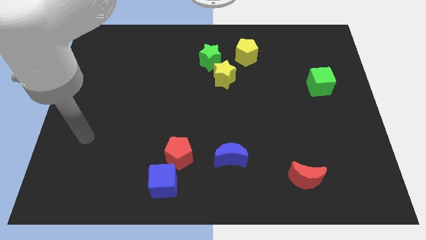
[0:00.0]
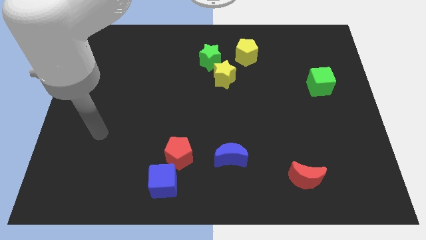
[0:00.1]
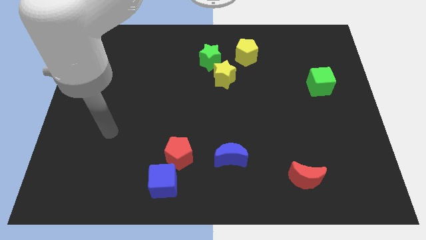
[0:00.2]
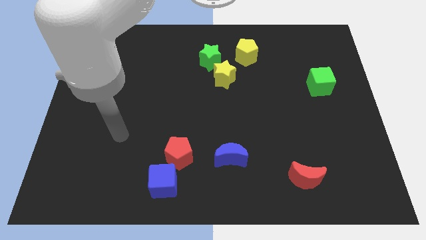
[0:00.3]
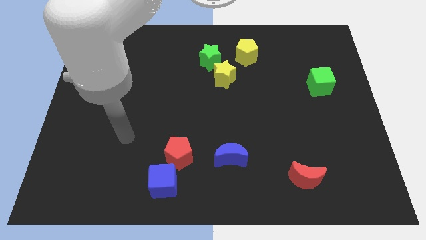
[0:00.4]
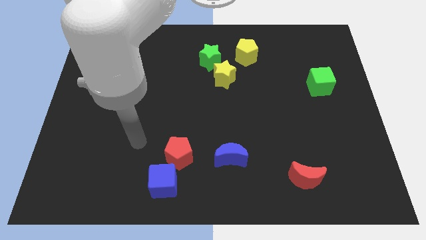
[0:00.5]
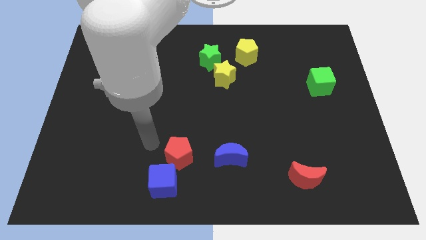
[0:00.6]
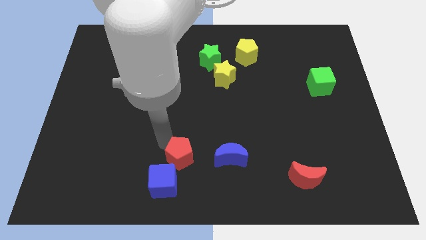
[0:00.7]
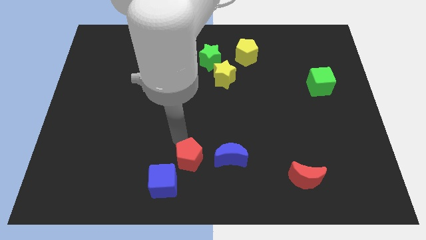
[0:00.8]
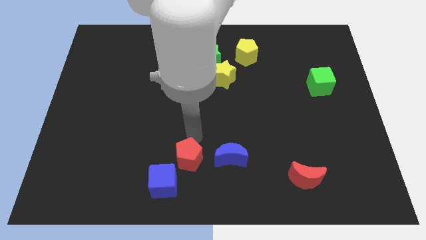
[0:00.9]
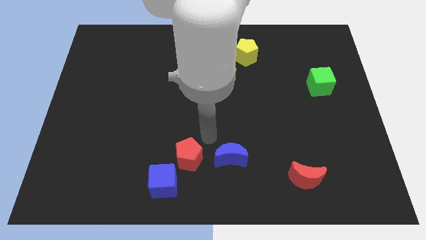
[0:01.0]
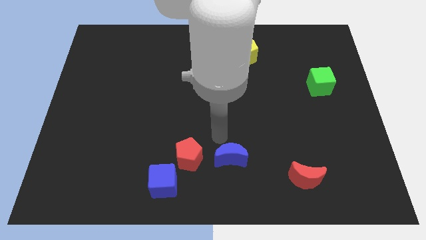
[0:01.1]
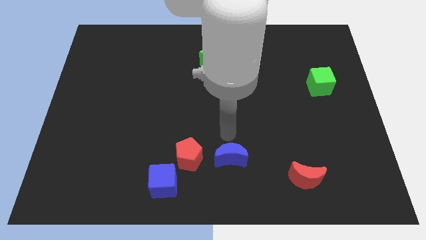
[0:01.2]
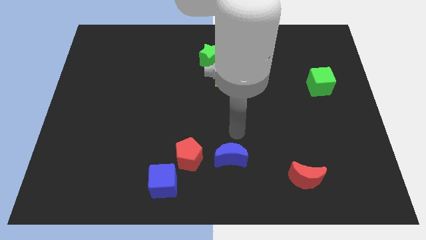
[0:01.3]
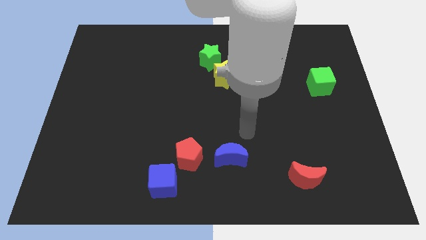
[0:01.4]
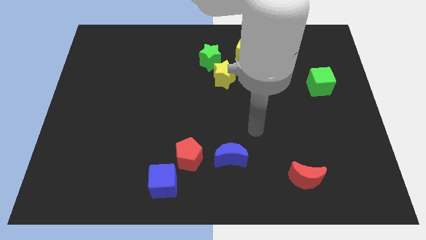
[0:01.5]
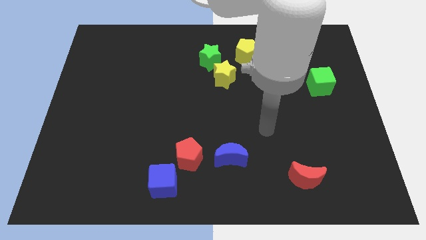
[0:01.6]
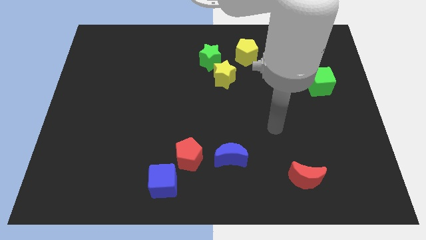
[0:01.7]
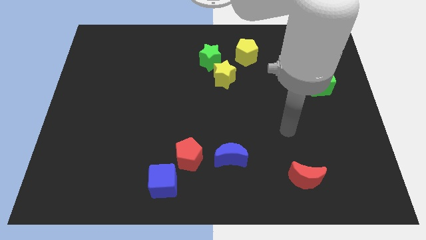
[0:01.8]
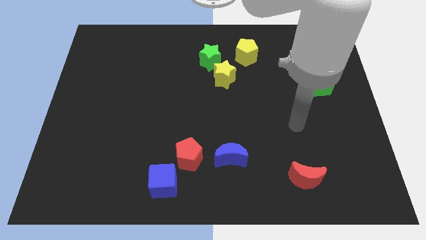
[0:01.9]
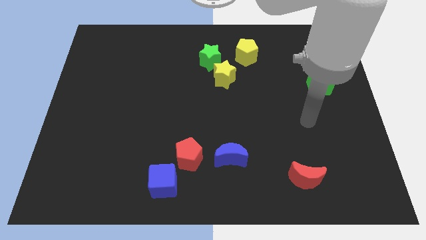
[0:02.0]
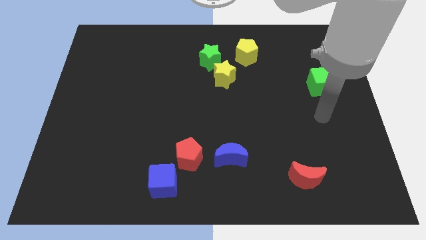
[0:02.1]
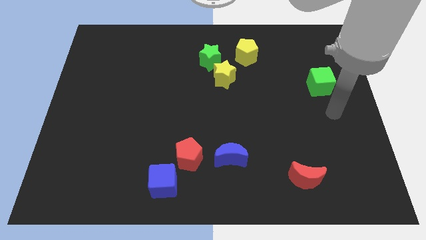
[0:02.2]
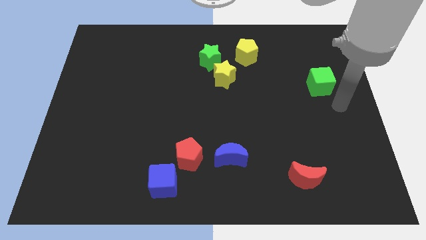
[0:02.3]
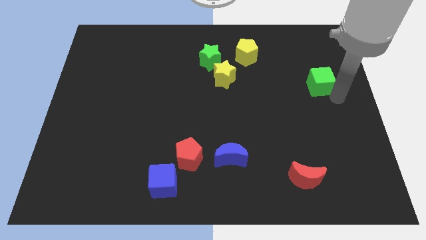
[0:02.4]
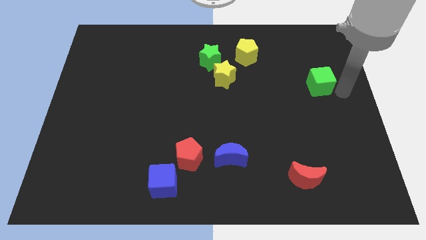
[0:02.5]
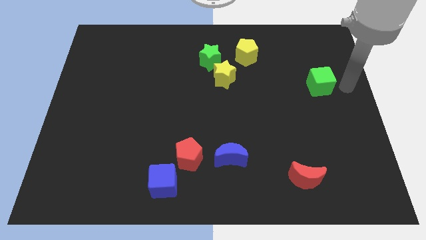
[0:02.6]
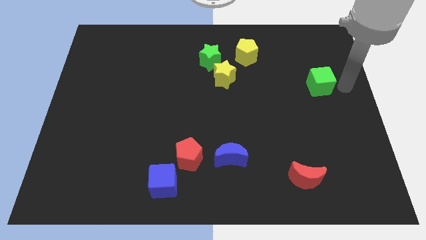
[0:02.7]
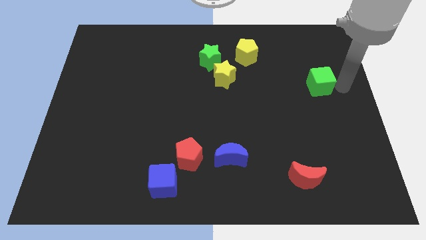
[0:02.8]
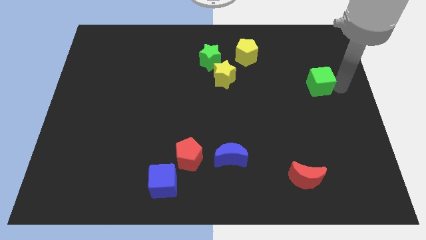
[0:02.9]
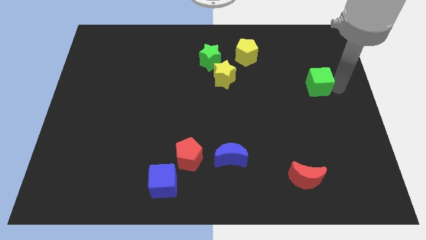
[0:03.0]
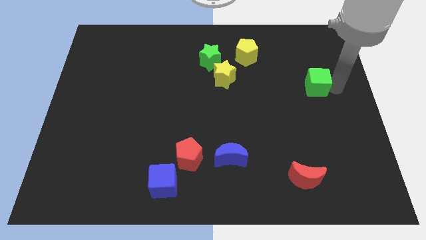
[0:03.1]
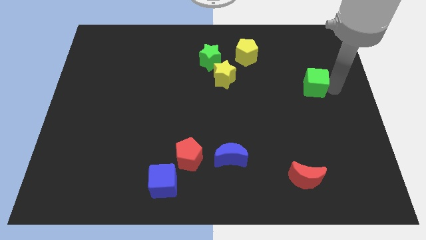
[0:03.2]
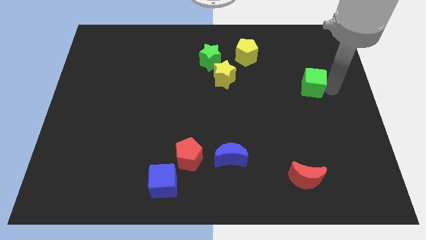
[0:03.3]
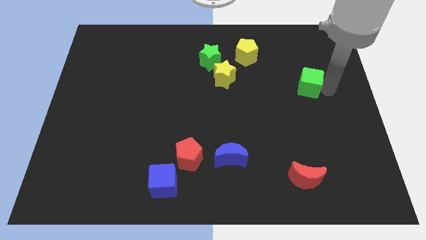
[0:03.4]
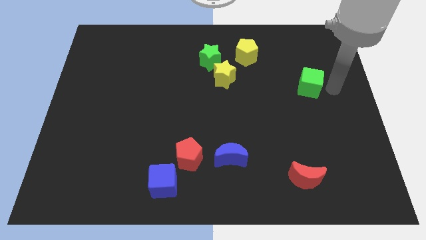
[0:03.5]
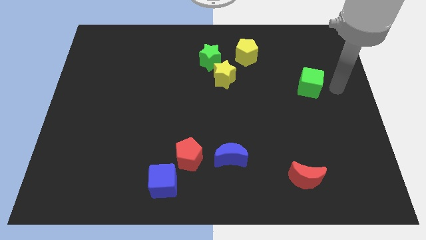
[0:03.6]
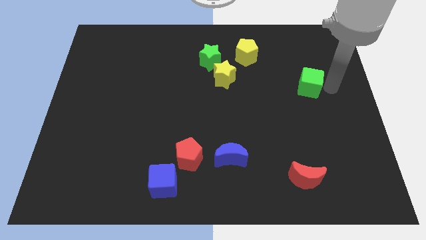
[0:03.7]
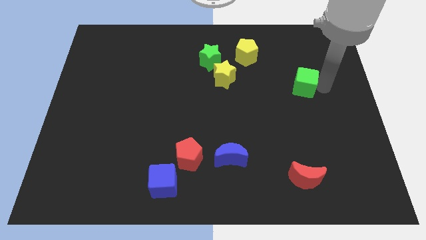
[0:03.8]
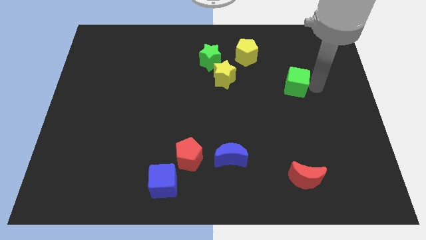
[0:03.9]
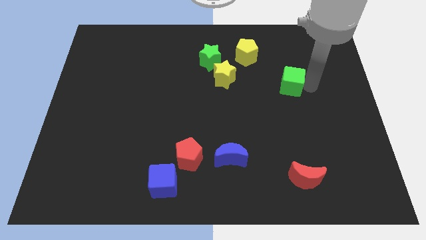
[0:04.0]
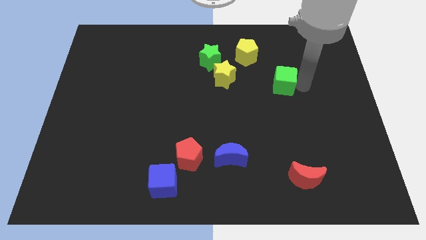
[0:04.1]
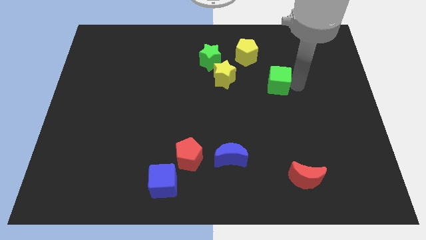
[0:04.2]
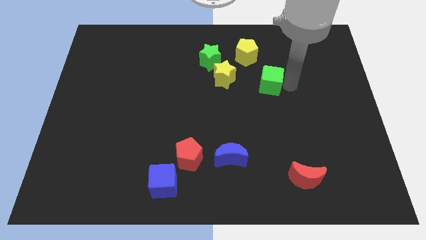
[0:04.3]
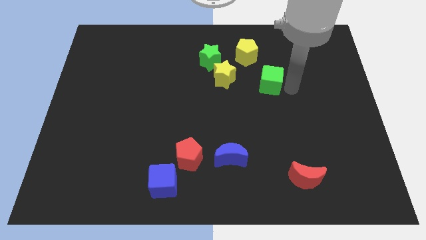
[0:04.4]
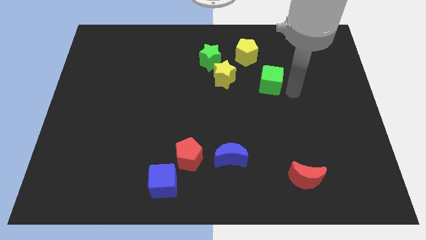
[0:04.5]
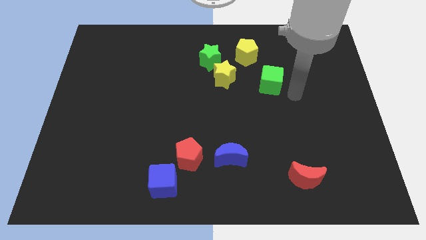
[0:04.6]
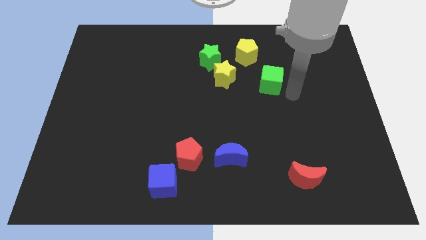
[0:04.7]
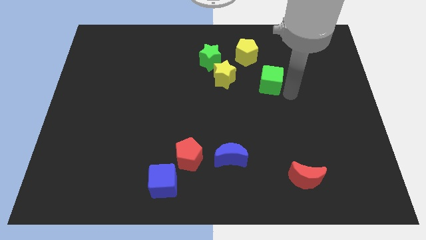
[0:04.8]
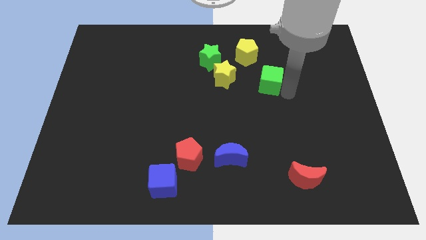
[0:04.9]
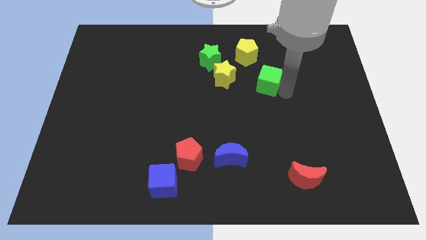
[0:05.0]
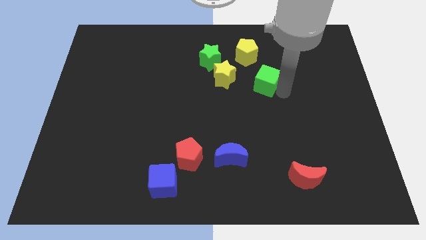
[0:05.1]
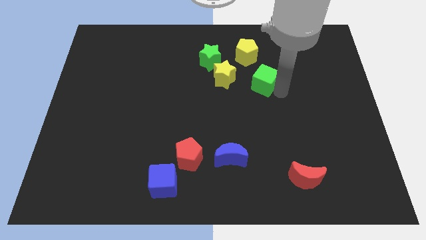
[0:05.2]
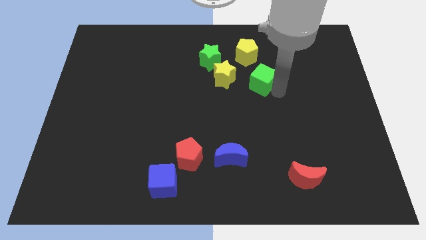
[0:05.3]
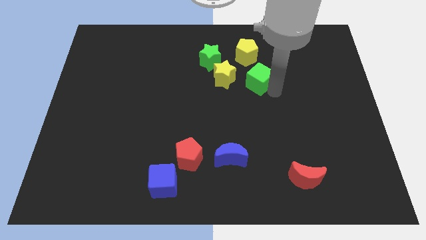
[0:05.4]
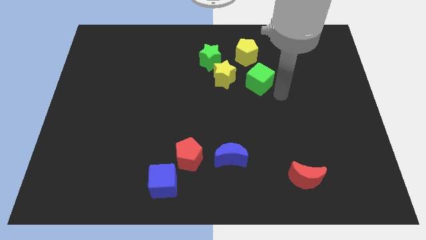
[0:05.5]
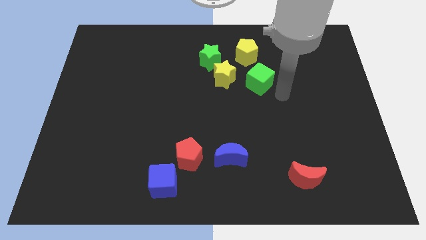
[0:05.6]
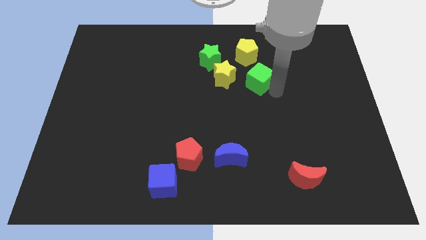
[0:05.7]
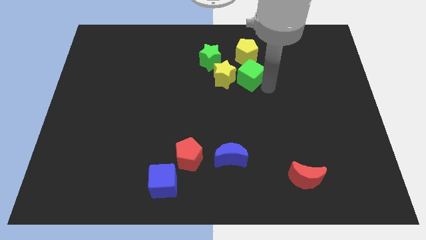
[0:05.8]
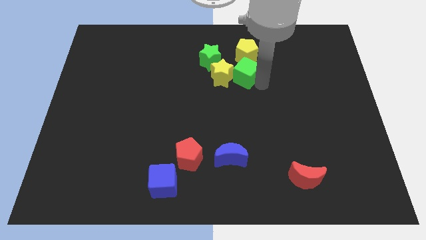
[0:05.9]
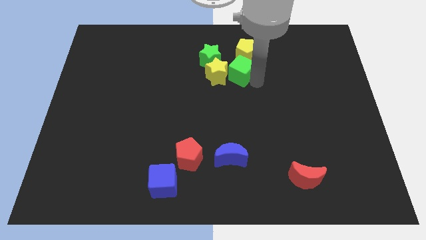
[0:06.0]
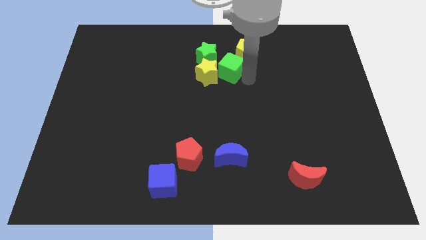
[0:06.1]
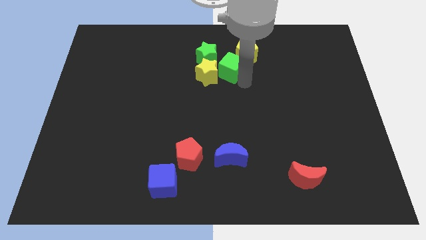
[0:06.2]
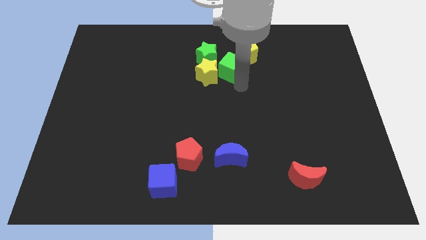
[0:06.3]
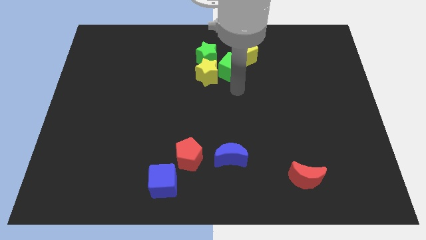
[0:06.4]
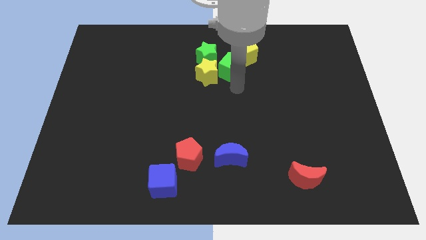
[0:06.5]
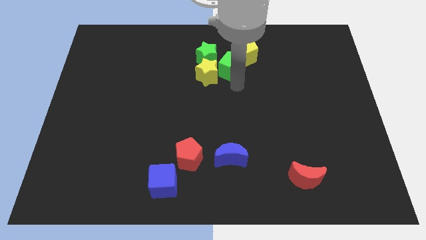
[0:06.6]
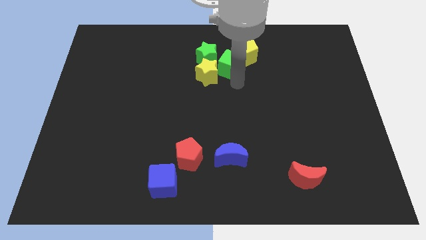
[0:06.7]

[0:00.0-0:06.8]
slide the green cube just left of the yellow pentagon
